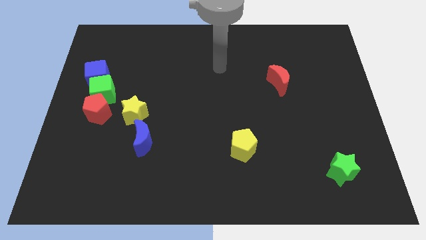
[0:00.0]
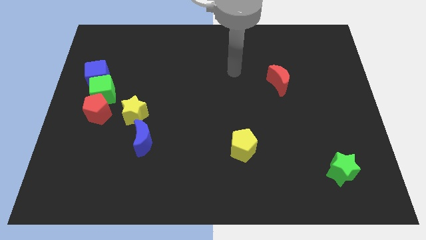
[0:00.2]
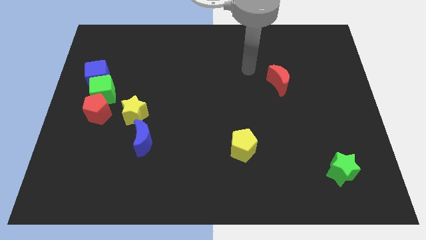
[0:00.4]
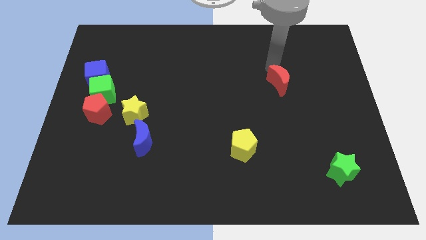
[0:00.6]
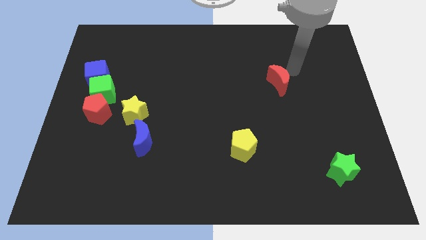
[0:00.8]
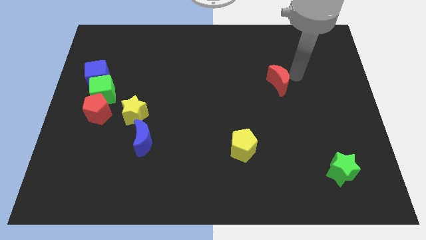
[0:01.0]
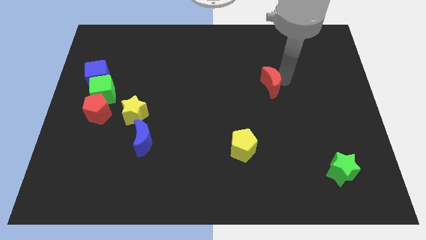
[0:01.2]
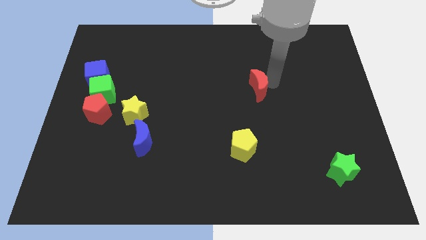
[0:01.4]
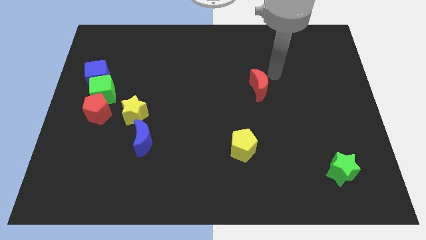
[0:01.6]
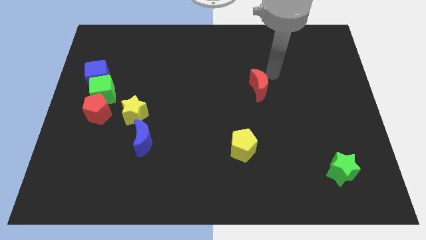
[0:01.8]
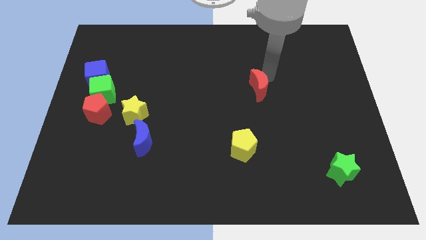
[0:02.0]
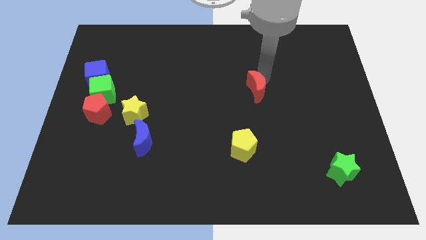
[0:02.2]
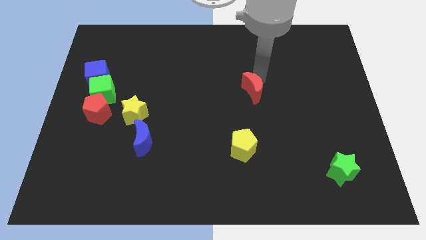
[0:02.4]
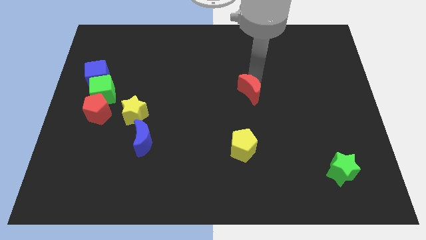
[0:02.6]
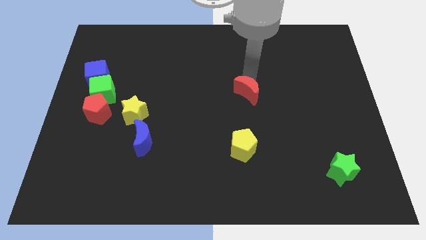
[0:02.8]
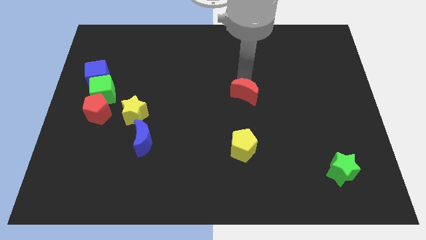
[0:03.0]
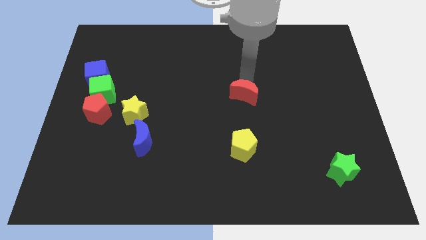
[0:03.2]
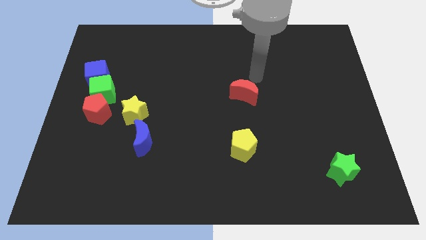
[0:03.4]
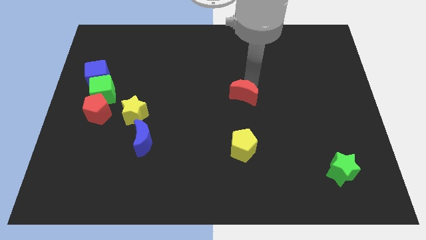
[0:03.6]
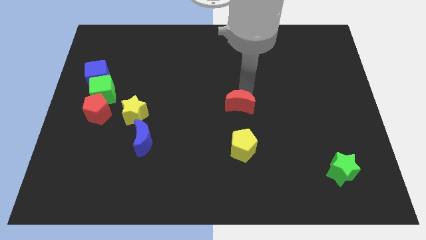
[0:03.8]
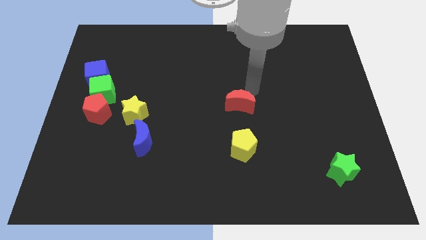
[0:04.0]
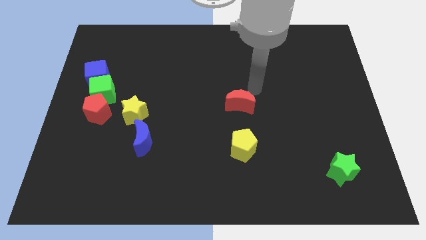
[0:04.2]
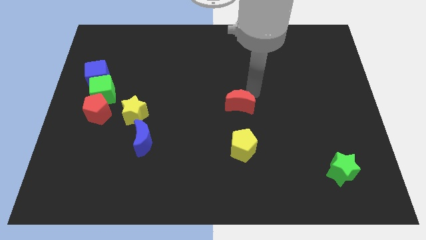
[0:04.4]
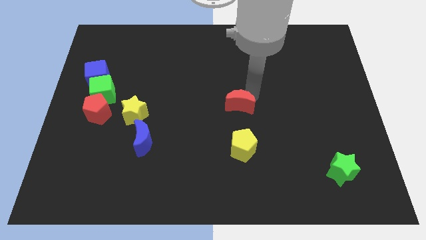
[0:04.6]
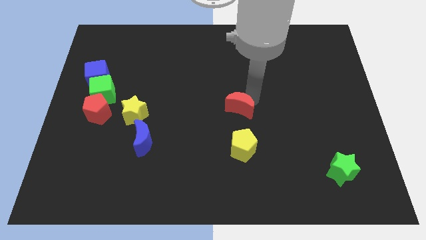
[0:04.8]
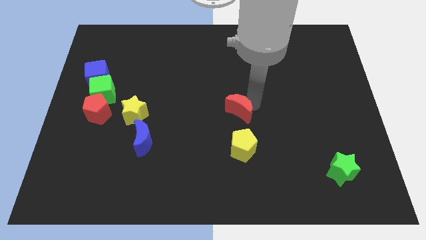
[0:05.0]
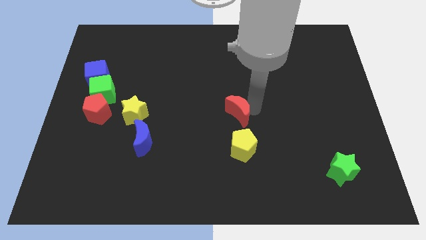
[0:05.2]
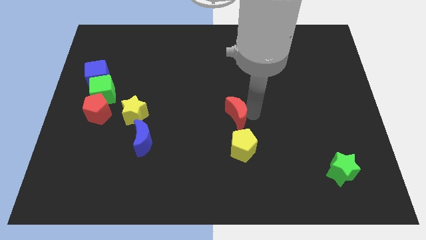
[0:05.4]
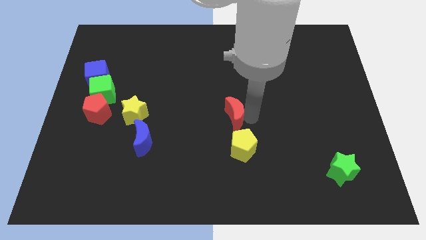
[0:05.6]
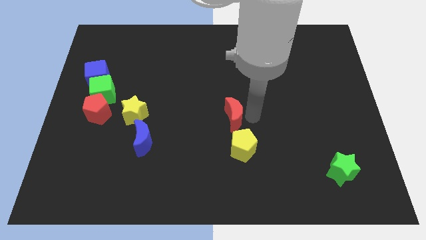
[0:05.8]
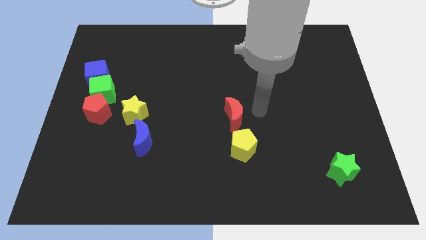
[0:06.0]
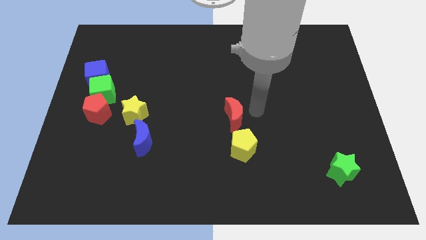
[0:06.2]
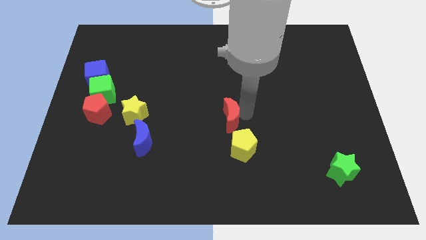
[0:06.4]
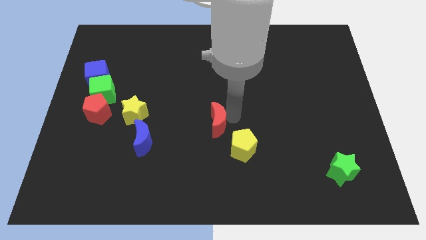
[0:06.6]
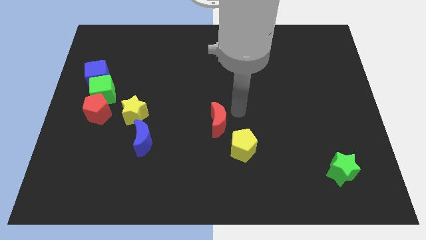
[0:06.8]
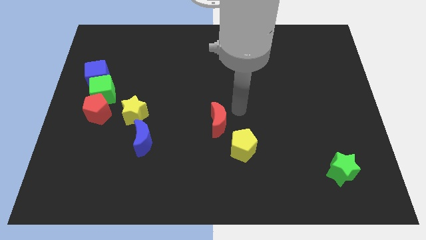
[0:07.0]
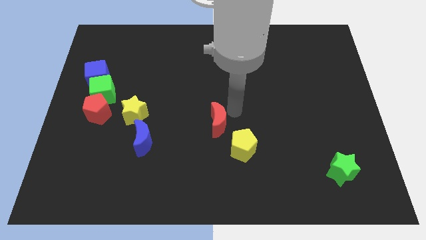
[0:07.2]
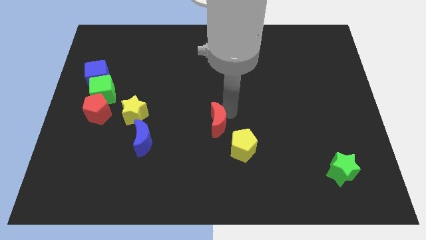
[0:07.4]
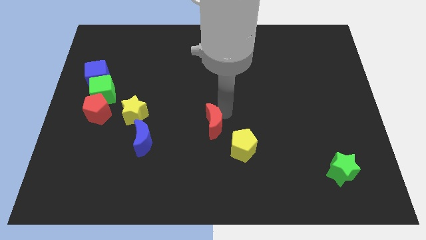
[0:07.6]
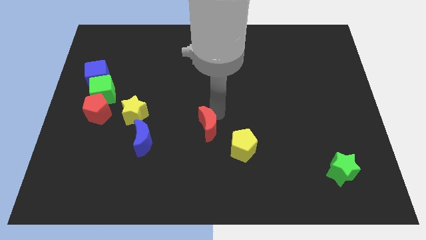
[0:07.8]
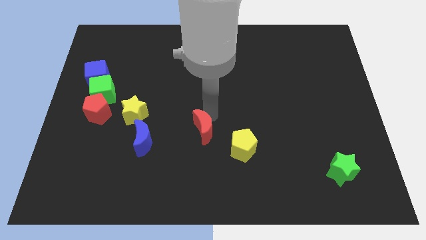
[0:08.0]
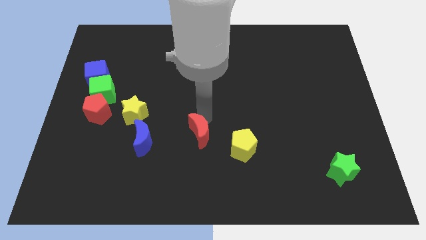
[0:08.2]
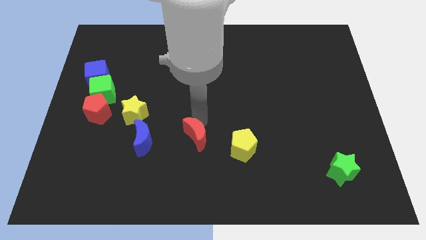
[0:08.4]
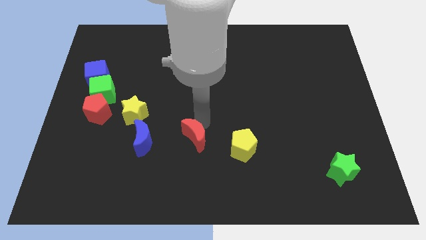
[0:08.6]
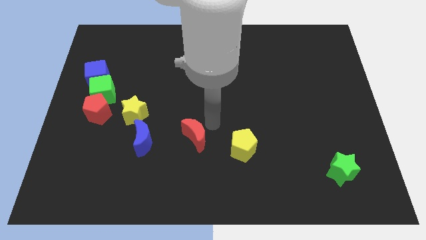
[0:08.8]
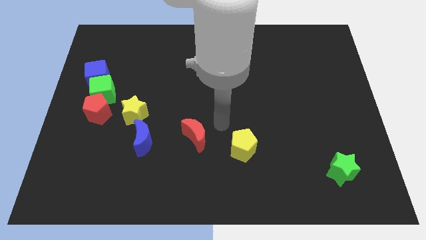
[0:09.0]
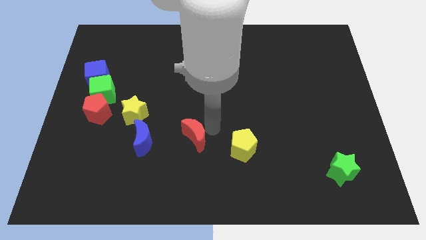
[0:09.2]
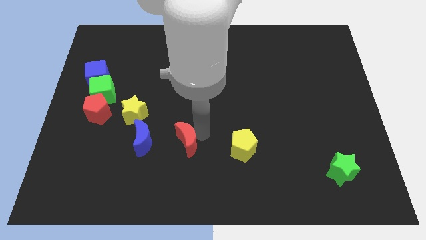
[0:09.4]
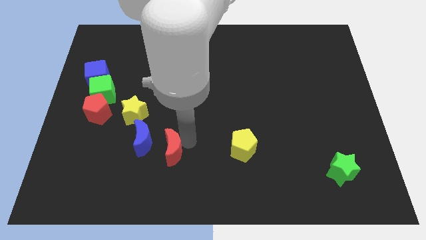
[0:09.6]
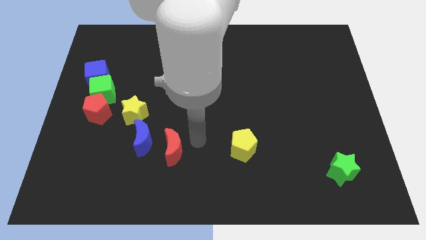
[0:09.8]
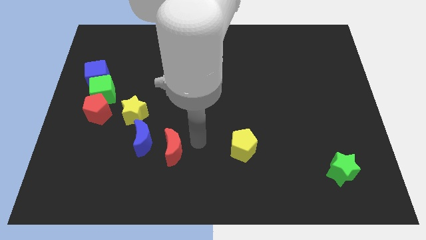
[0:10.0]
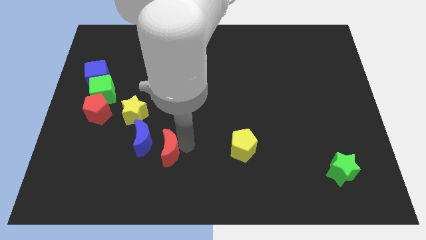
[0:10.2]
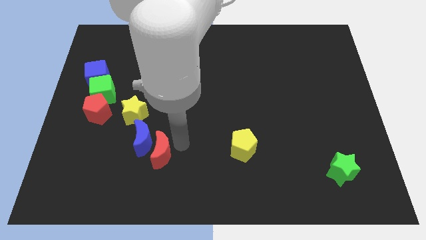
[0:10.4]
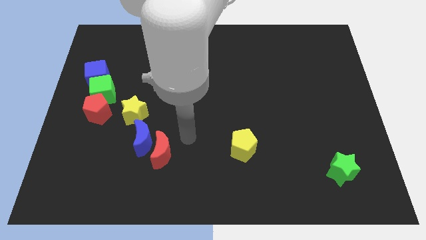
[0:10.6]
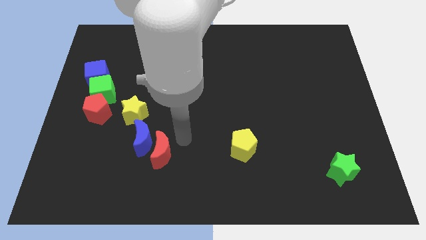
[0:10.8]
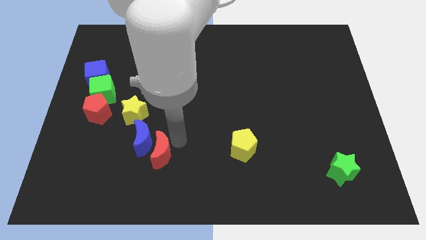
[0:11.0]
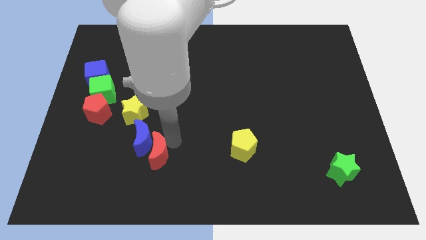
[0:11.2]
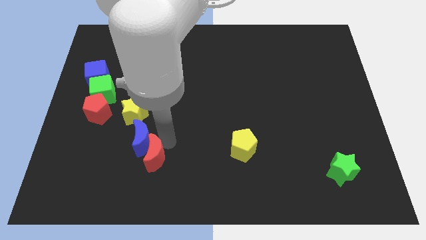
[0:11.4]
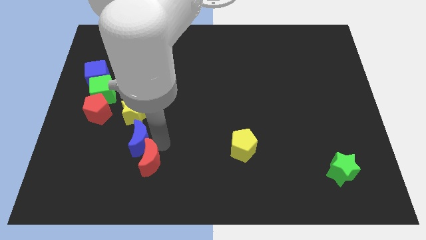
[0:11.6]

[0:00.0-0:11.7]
put the red moon to the bottom side of the yellow star

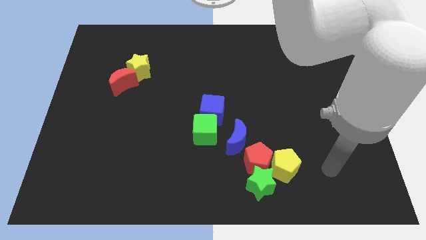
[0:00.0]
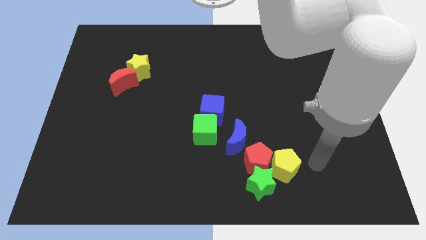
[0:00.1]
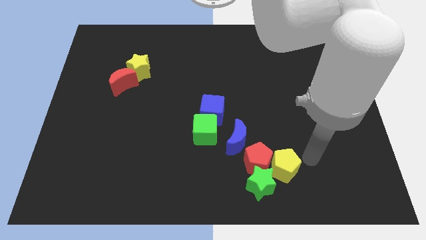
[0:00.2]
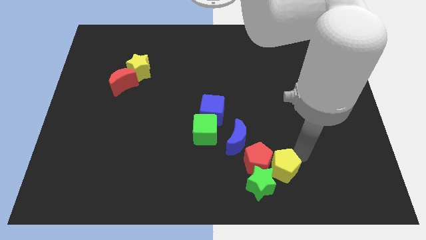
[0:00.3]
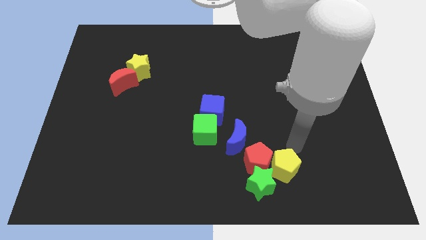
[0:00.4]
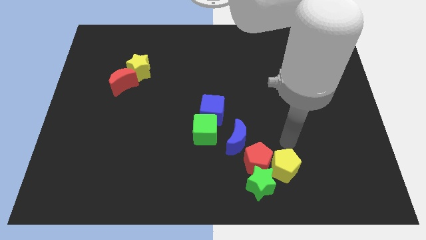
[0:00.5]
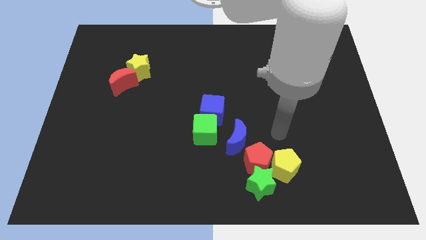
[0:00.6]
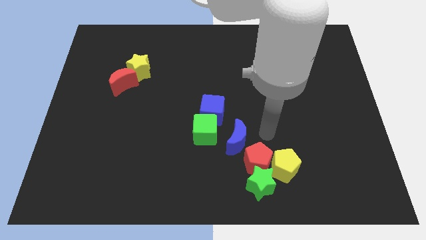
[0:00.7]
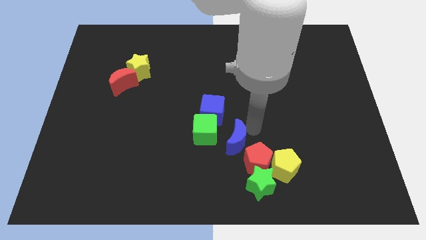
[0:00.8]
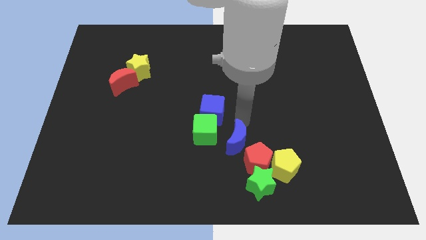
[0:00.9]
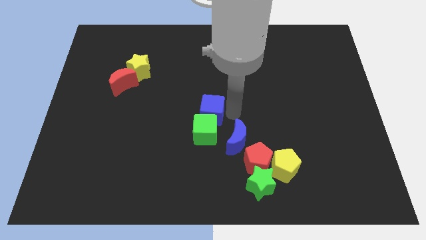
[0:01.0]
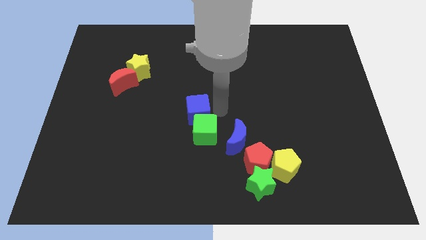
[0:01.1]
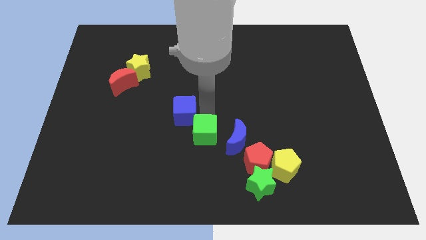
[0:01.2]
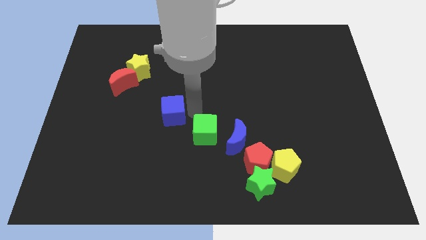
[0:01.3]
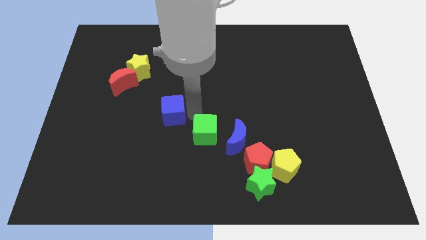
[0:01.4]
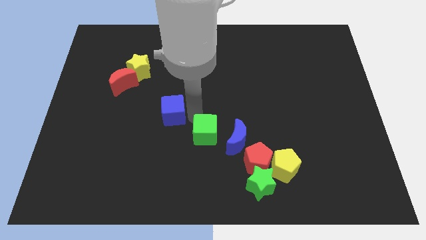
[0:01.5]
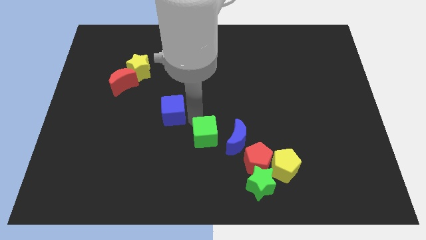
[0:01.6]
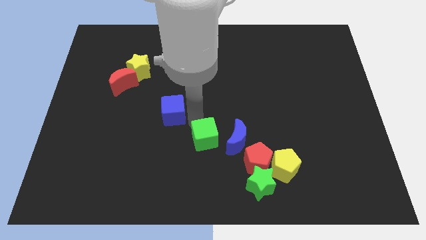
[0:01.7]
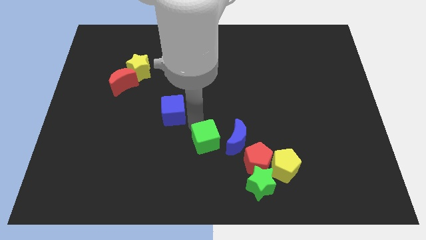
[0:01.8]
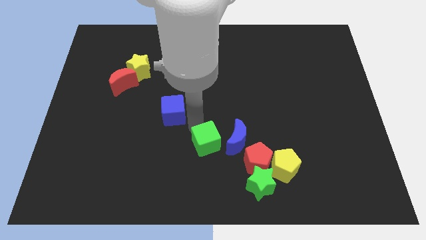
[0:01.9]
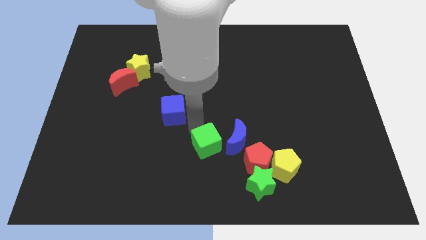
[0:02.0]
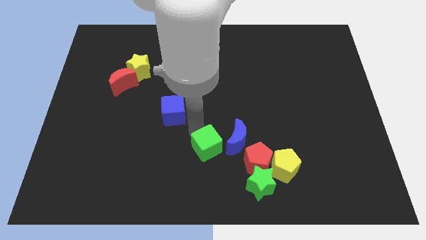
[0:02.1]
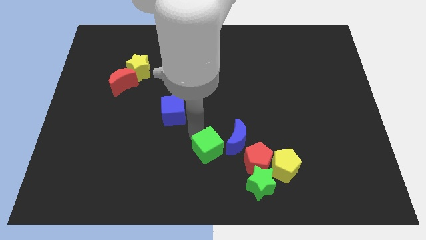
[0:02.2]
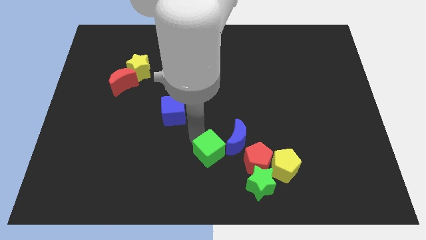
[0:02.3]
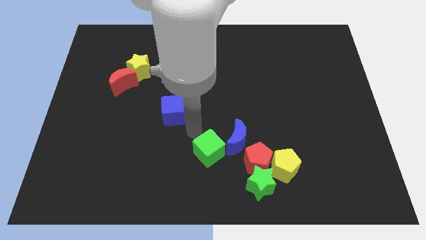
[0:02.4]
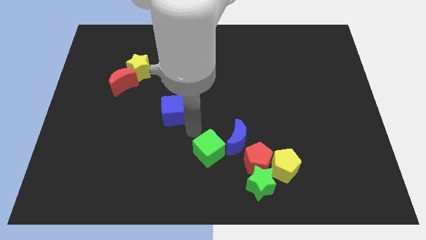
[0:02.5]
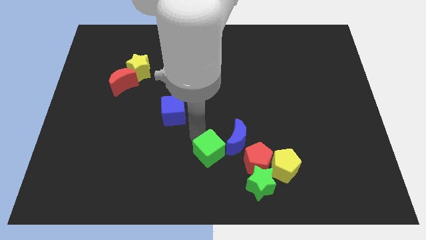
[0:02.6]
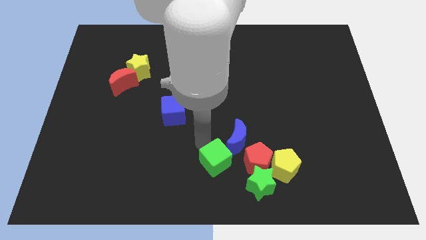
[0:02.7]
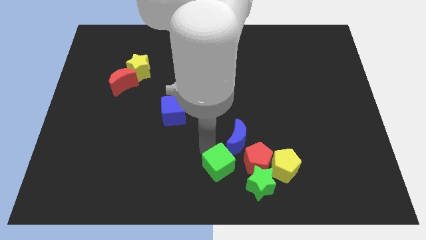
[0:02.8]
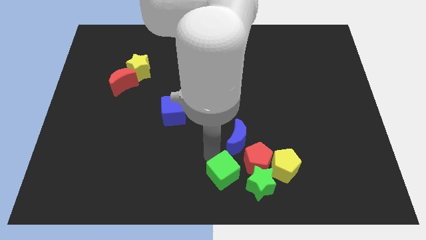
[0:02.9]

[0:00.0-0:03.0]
move the green cube to the bottom left of the red pentagon
